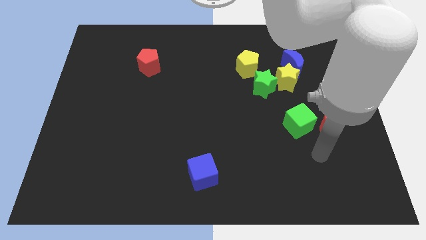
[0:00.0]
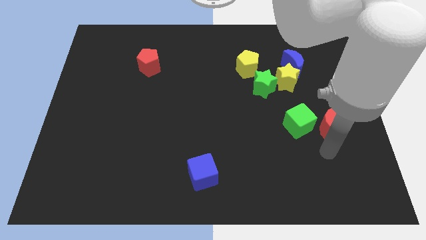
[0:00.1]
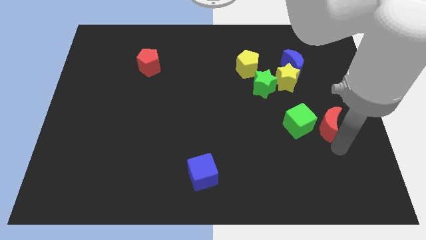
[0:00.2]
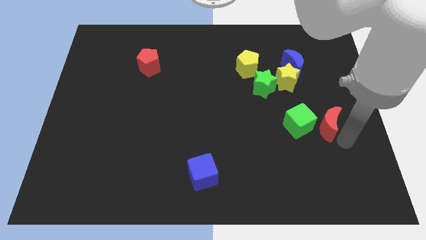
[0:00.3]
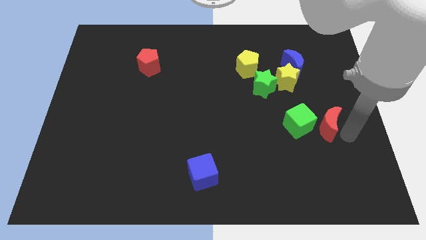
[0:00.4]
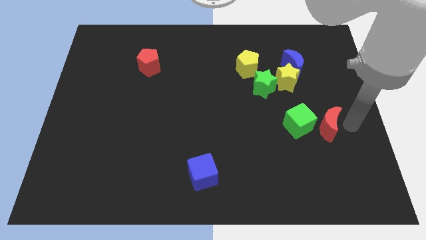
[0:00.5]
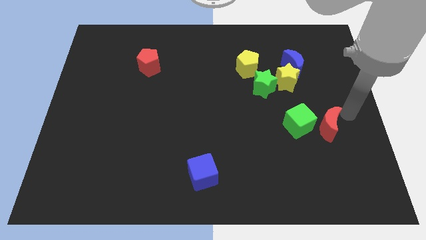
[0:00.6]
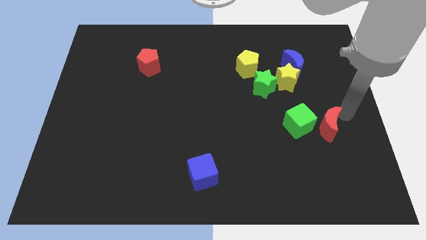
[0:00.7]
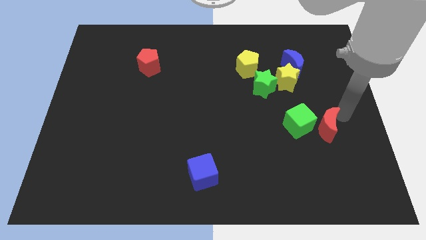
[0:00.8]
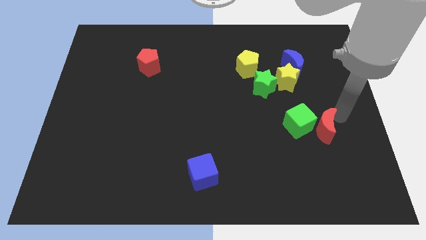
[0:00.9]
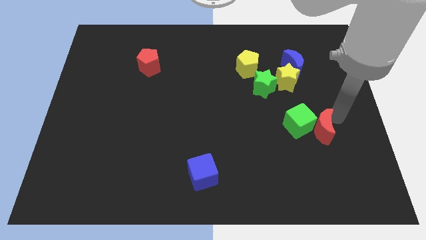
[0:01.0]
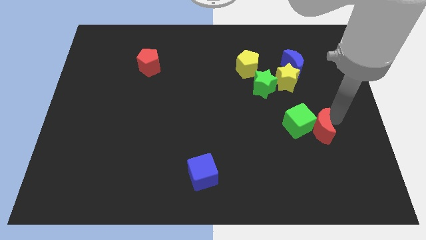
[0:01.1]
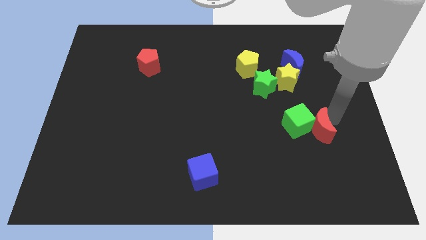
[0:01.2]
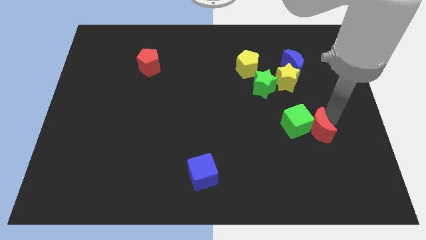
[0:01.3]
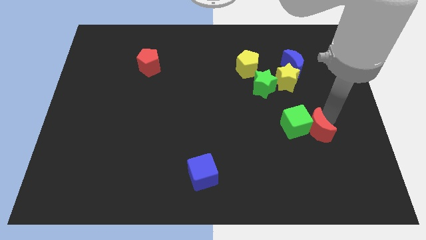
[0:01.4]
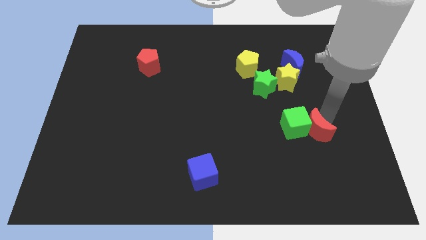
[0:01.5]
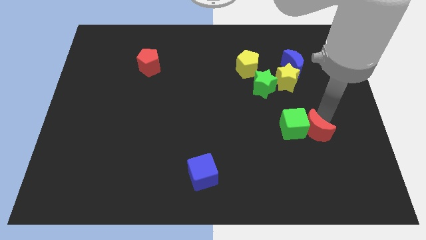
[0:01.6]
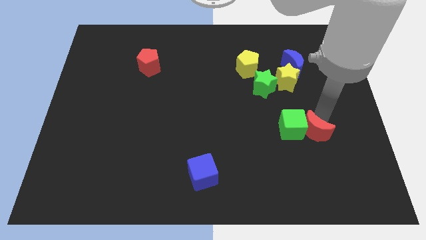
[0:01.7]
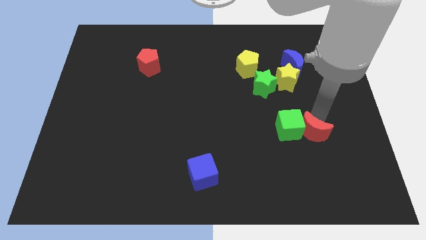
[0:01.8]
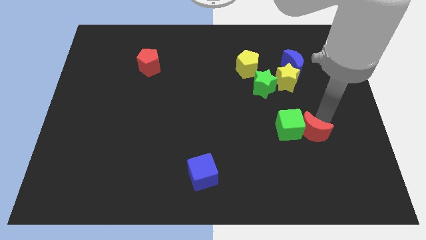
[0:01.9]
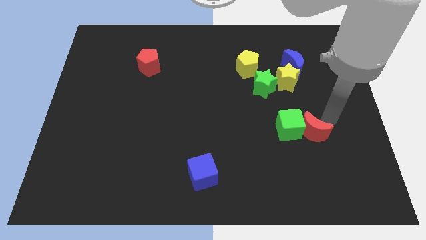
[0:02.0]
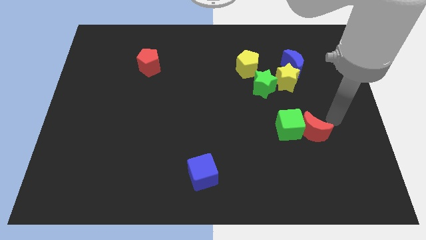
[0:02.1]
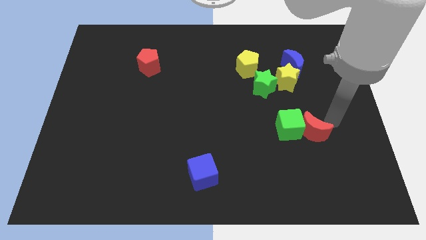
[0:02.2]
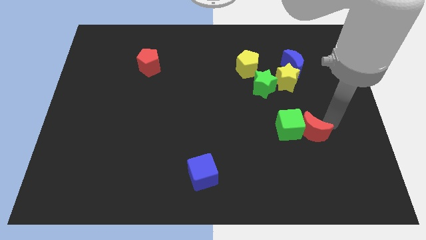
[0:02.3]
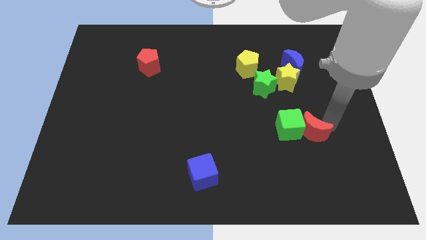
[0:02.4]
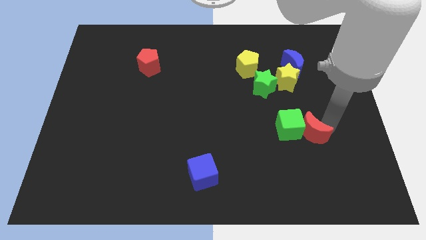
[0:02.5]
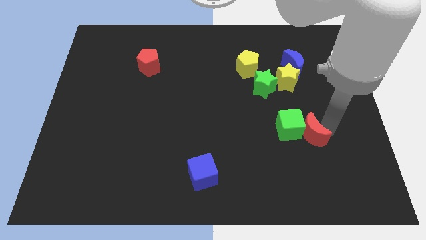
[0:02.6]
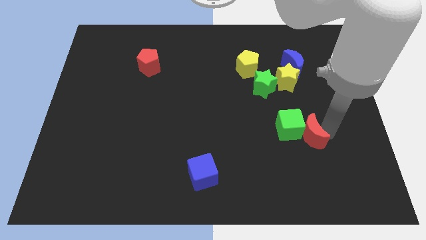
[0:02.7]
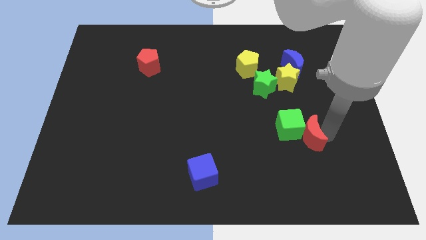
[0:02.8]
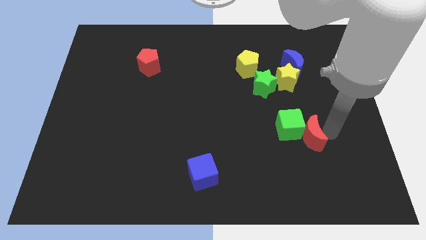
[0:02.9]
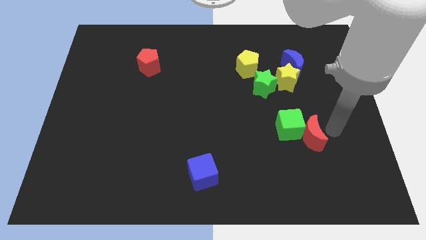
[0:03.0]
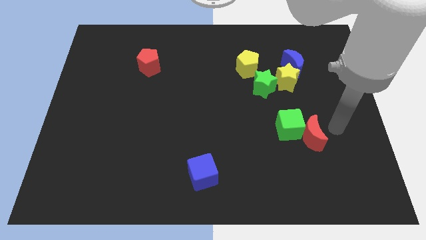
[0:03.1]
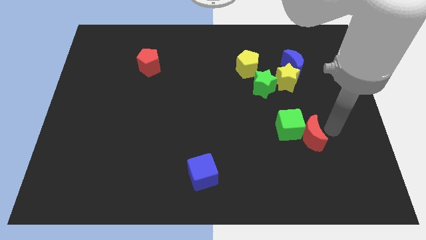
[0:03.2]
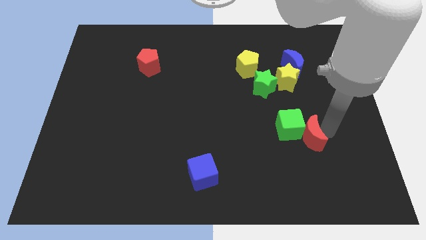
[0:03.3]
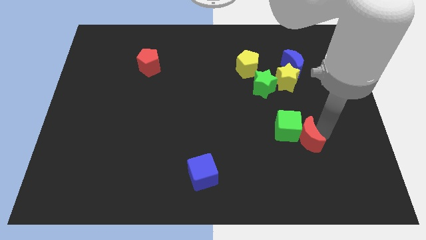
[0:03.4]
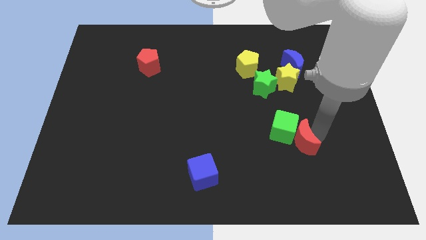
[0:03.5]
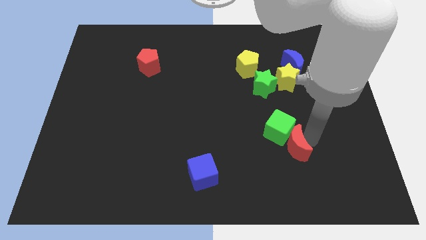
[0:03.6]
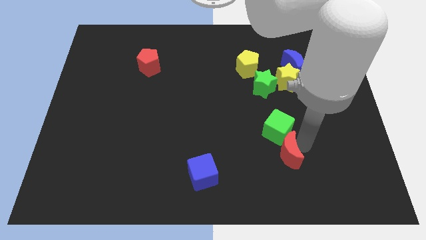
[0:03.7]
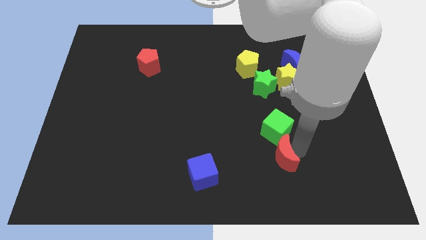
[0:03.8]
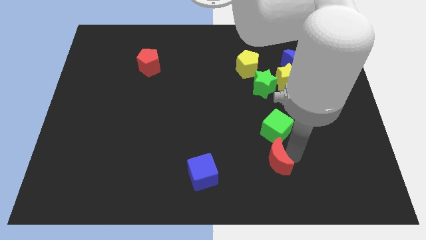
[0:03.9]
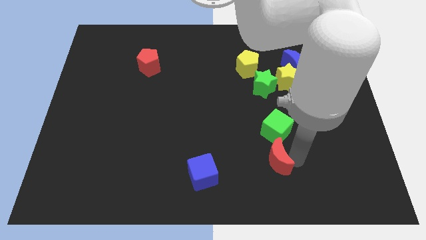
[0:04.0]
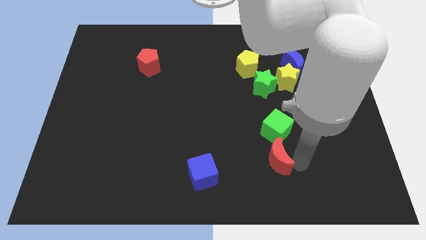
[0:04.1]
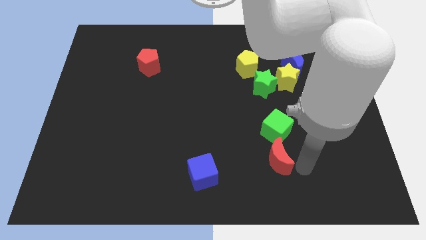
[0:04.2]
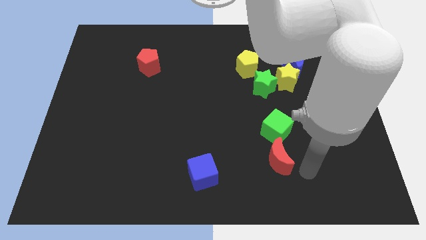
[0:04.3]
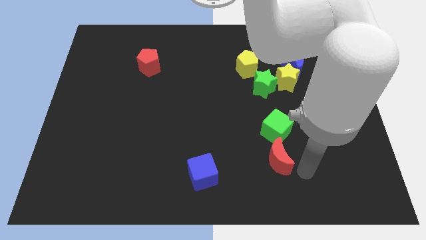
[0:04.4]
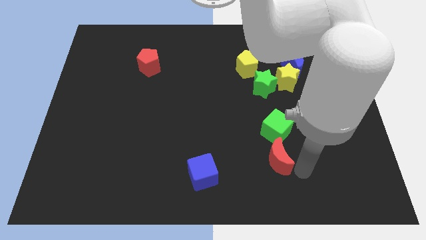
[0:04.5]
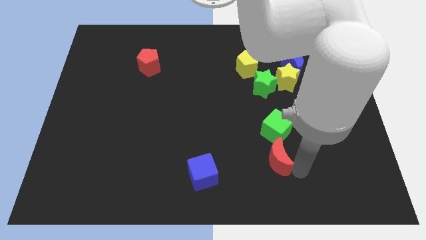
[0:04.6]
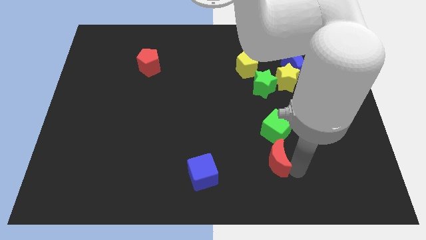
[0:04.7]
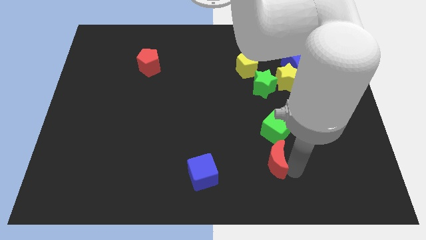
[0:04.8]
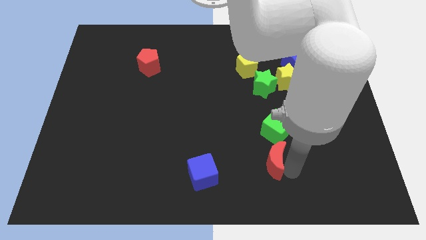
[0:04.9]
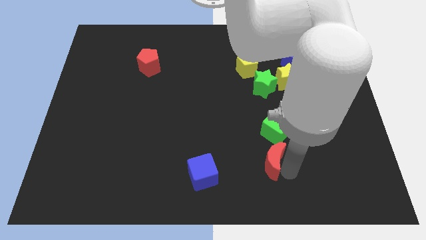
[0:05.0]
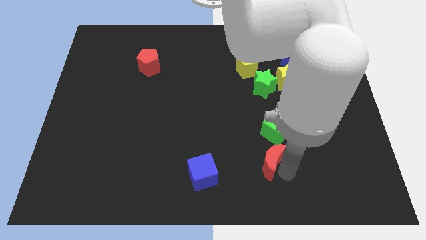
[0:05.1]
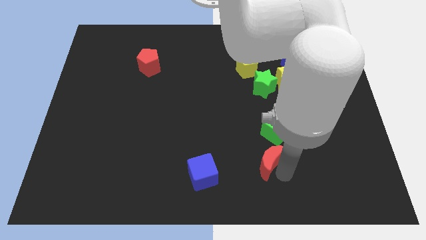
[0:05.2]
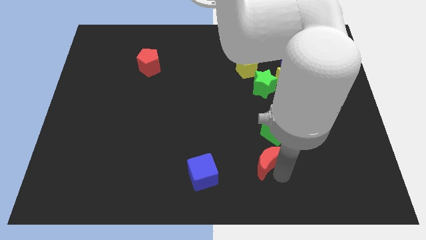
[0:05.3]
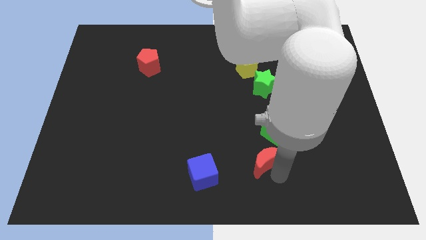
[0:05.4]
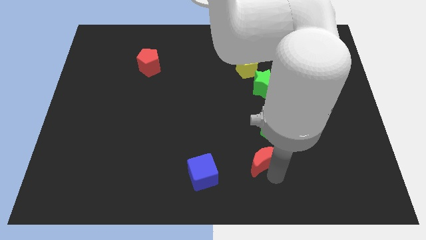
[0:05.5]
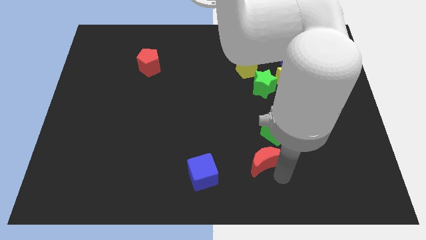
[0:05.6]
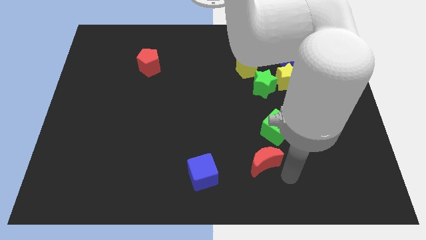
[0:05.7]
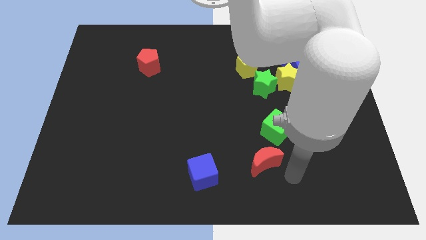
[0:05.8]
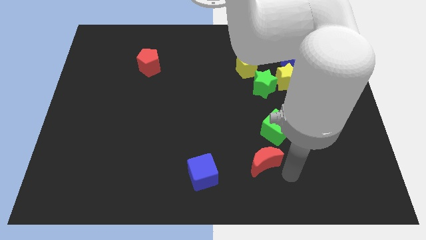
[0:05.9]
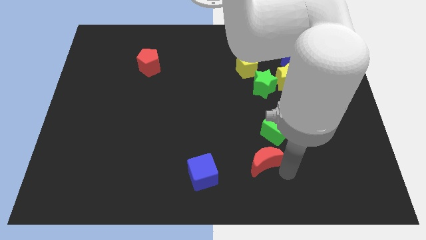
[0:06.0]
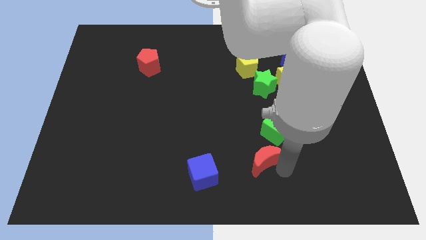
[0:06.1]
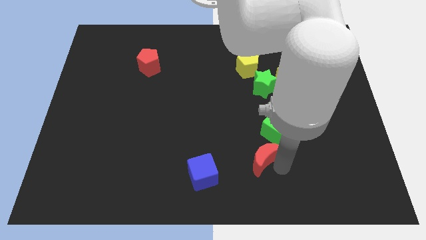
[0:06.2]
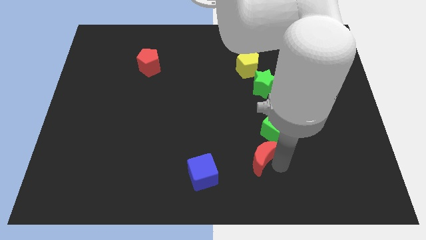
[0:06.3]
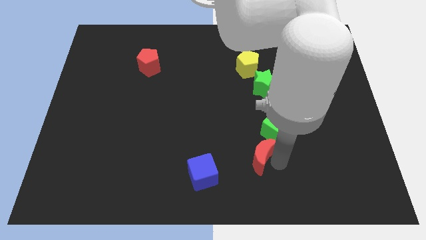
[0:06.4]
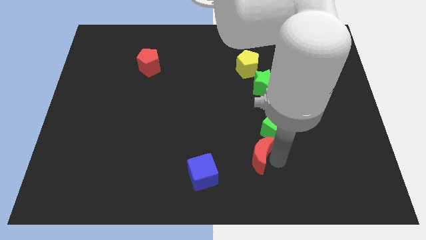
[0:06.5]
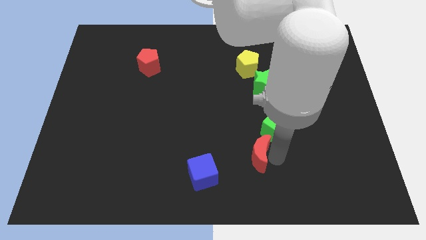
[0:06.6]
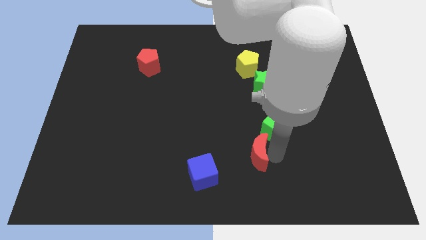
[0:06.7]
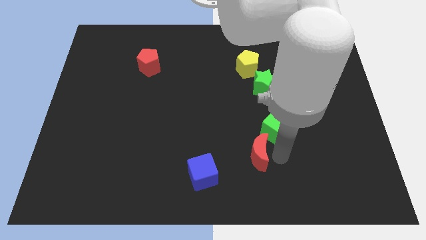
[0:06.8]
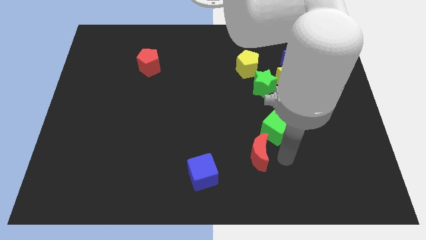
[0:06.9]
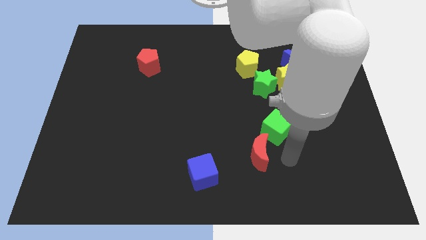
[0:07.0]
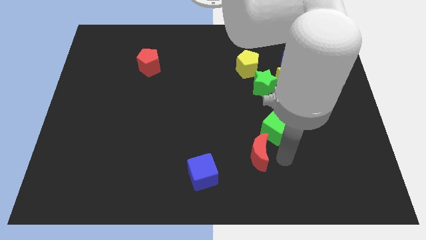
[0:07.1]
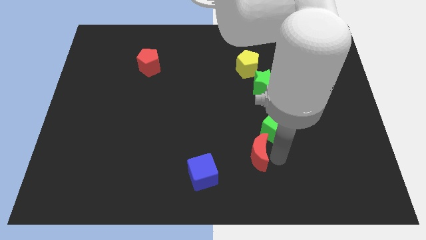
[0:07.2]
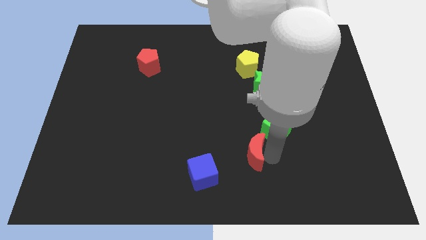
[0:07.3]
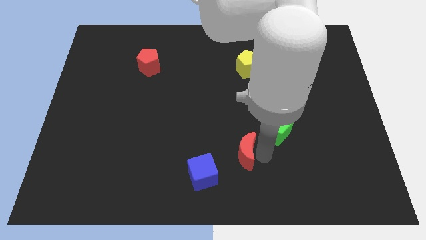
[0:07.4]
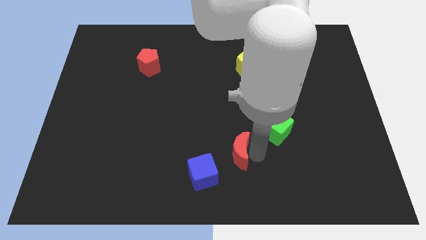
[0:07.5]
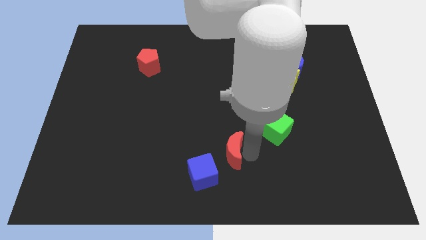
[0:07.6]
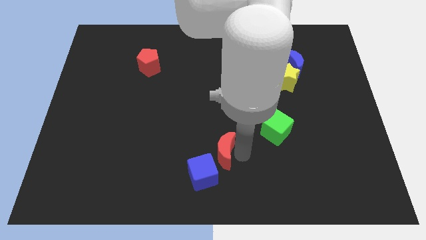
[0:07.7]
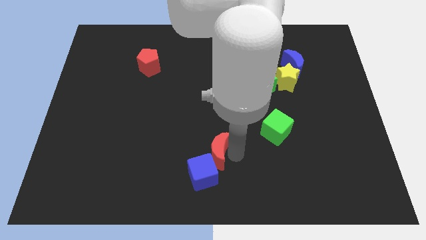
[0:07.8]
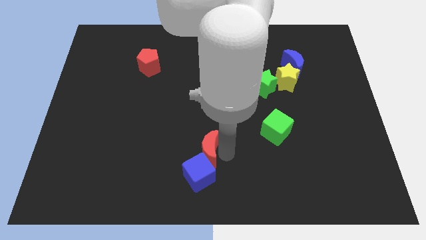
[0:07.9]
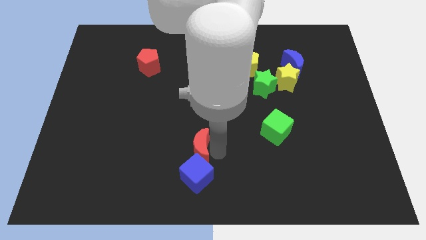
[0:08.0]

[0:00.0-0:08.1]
slide the red moon to the top left of the blue cube
